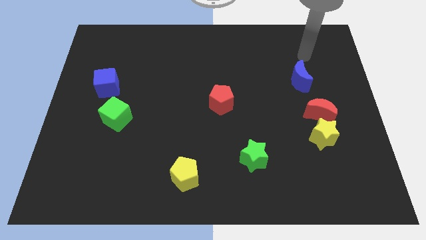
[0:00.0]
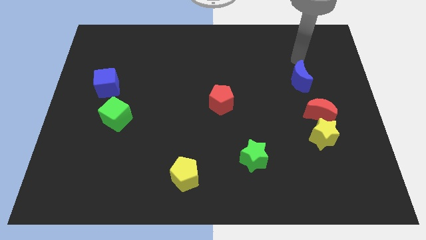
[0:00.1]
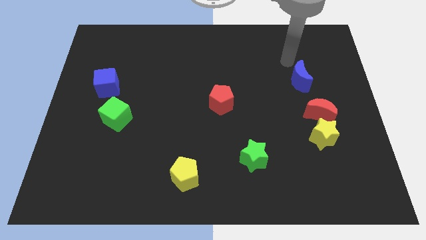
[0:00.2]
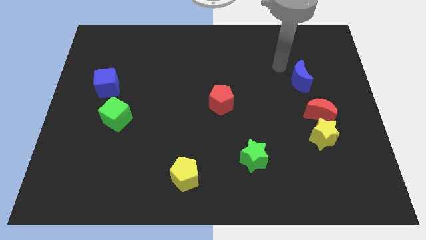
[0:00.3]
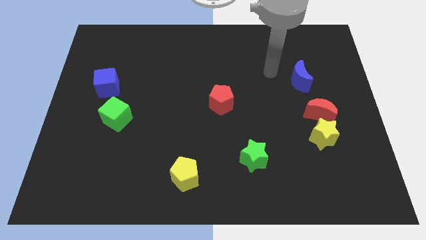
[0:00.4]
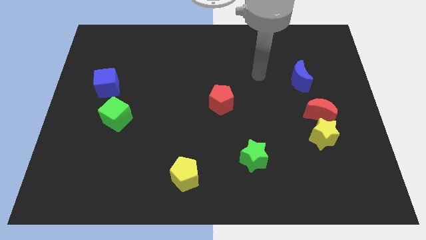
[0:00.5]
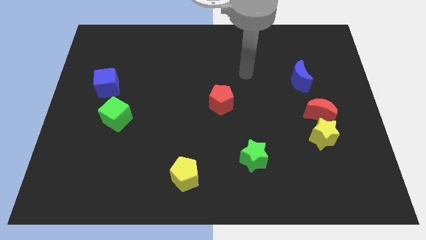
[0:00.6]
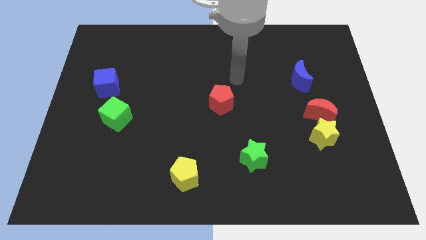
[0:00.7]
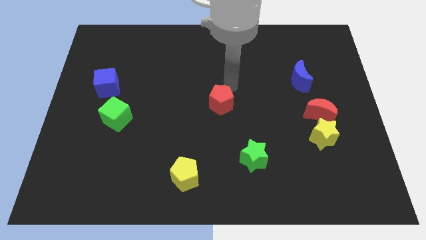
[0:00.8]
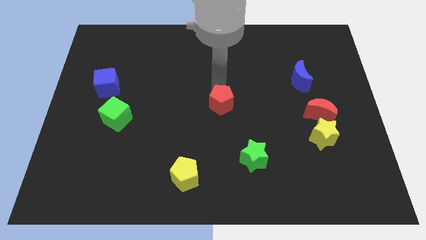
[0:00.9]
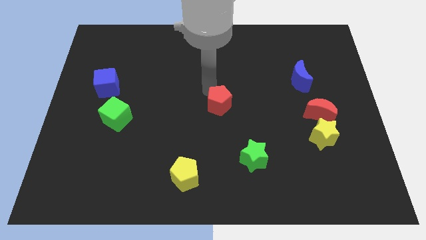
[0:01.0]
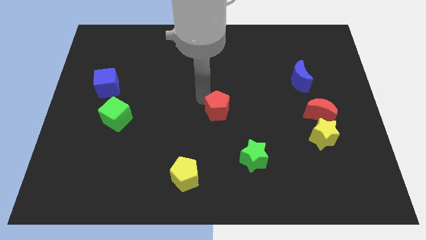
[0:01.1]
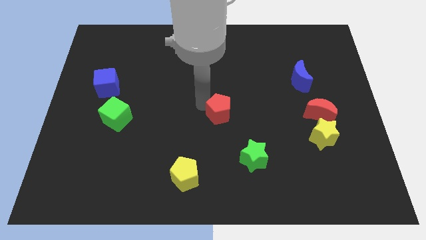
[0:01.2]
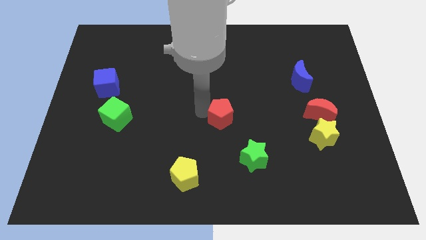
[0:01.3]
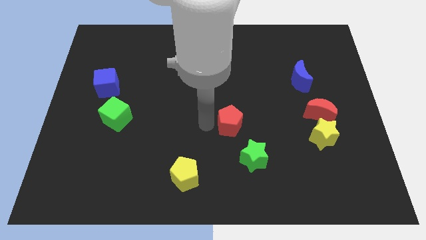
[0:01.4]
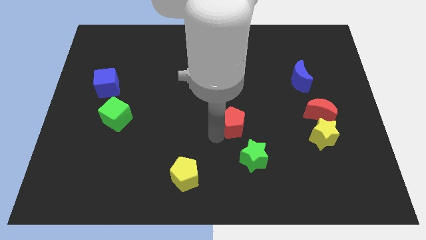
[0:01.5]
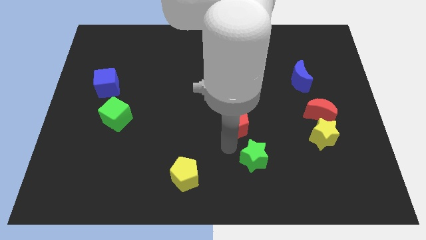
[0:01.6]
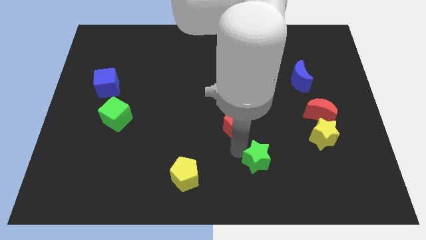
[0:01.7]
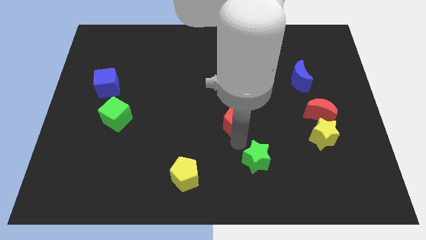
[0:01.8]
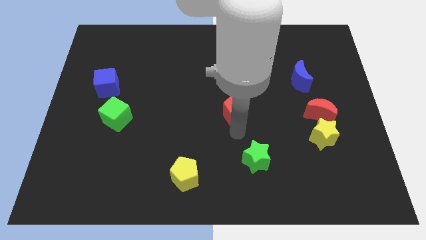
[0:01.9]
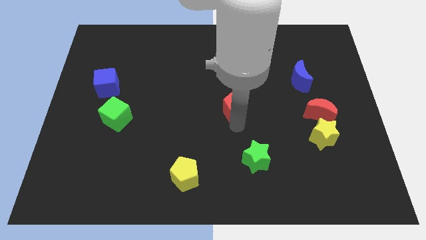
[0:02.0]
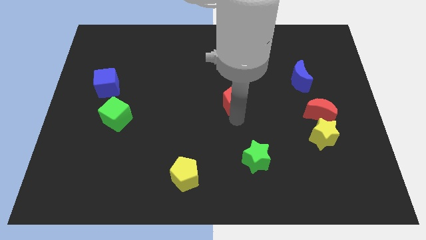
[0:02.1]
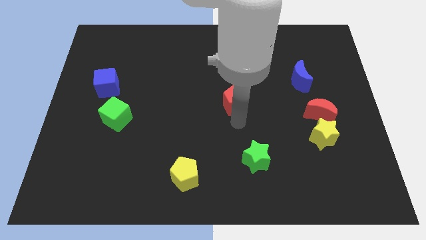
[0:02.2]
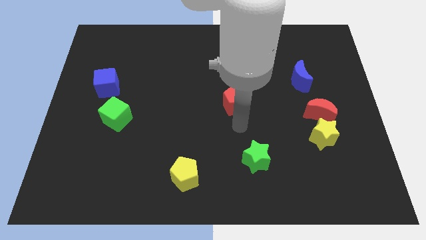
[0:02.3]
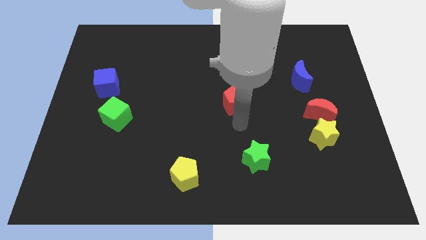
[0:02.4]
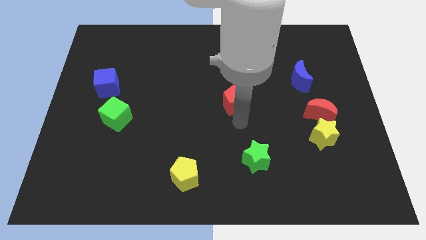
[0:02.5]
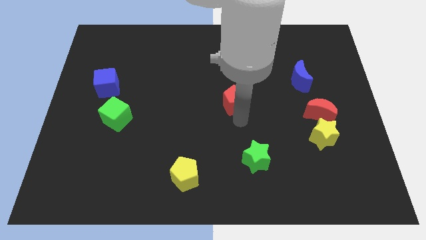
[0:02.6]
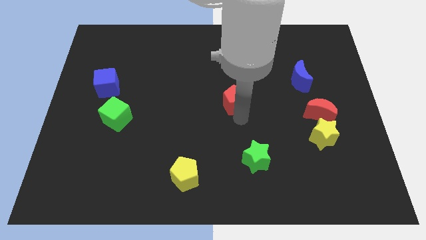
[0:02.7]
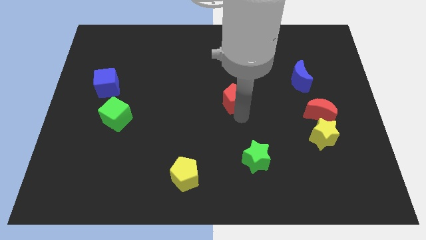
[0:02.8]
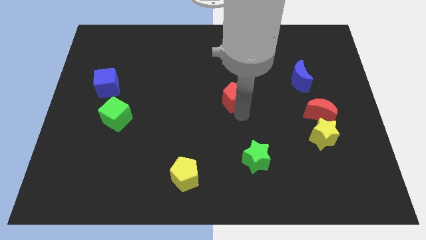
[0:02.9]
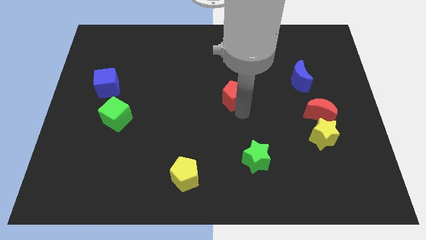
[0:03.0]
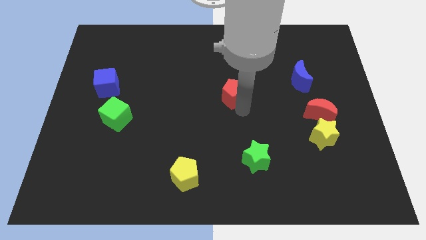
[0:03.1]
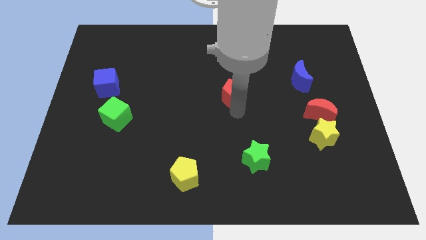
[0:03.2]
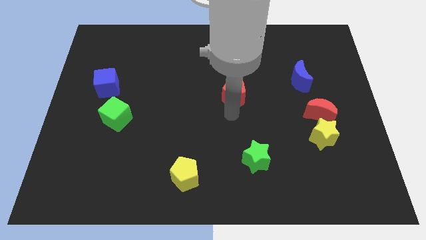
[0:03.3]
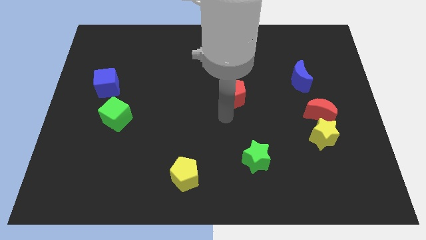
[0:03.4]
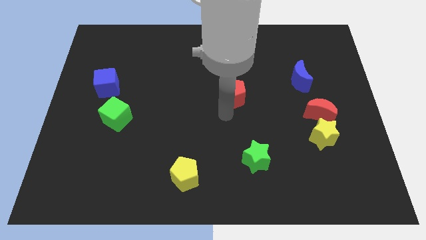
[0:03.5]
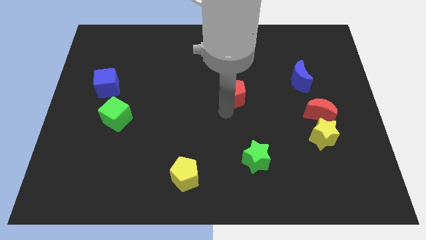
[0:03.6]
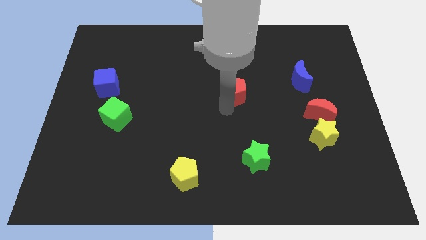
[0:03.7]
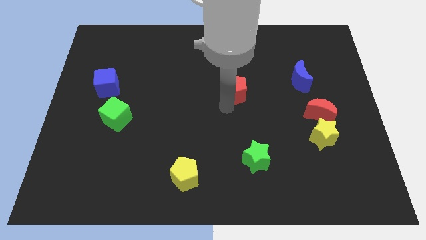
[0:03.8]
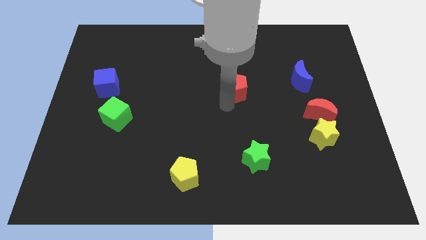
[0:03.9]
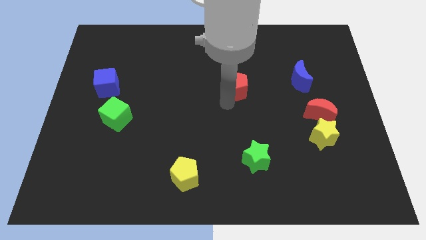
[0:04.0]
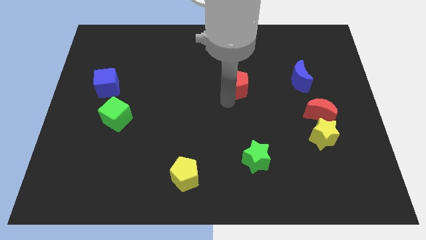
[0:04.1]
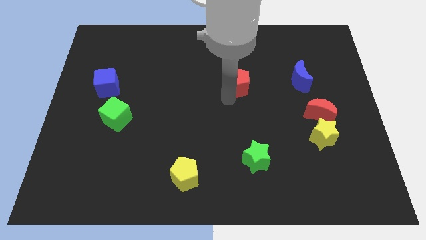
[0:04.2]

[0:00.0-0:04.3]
slightly slide the red pentagon diagonally up and right

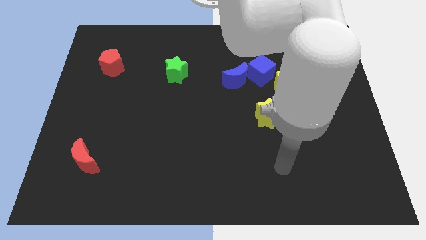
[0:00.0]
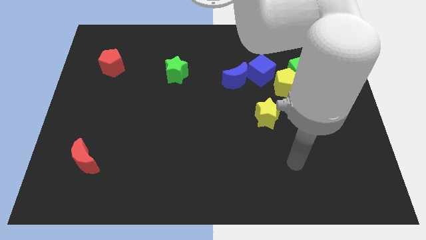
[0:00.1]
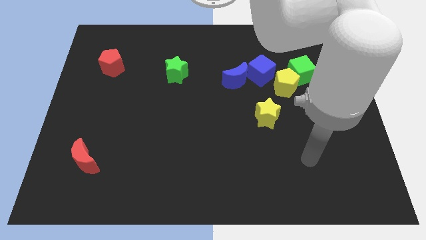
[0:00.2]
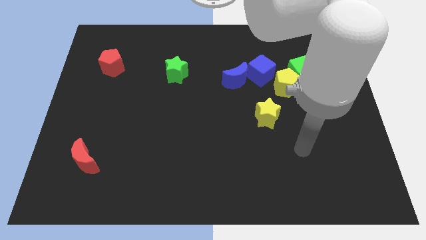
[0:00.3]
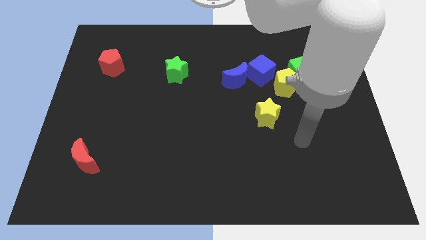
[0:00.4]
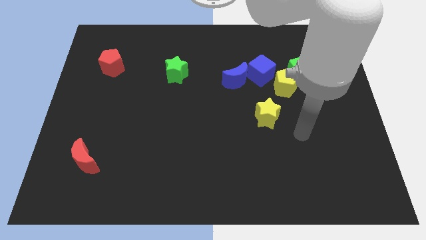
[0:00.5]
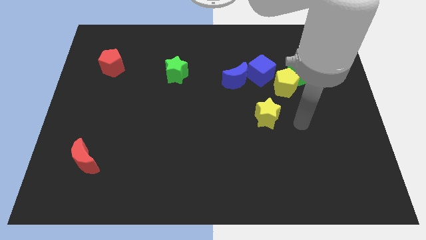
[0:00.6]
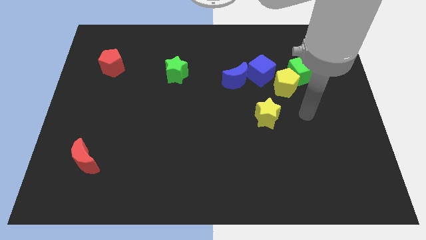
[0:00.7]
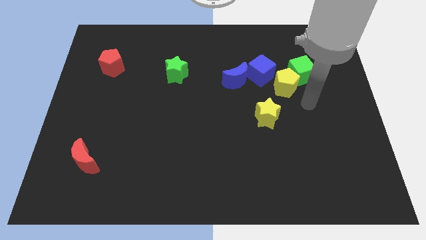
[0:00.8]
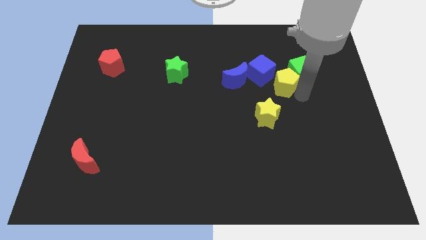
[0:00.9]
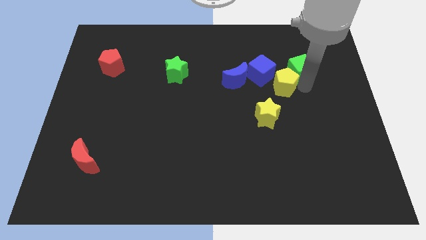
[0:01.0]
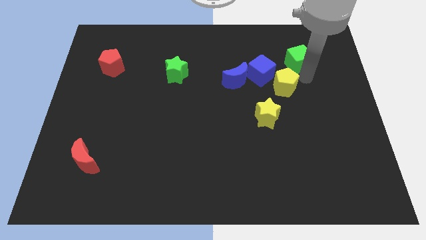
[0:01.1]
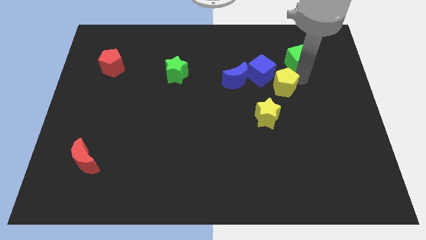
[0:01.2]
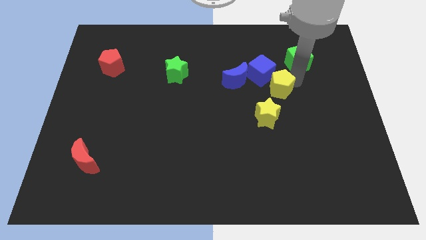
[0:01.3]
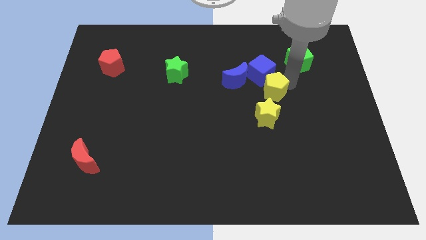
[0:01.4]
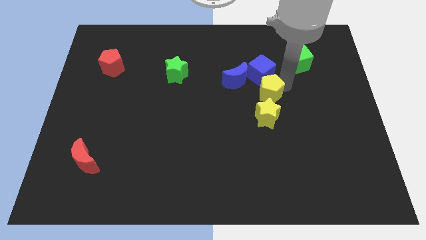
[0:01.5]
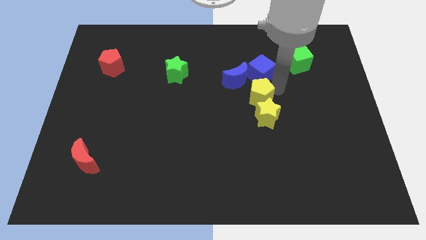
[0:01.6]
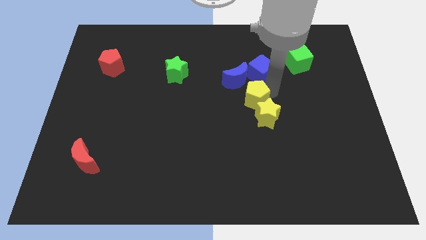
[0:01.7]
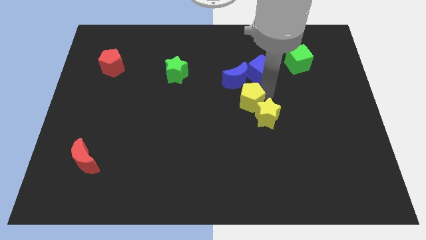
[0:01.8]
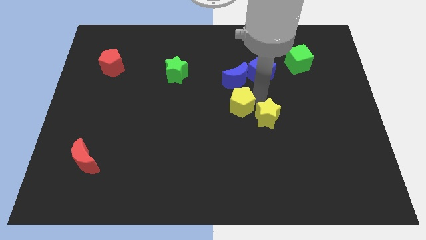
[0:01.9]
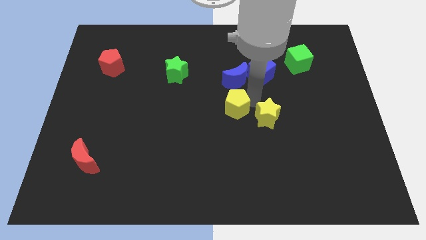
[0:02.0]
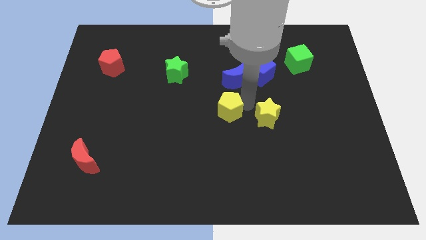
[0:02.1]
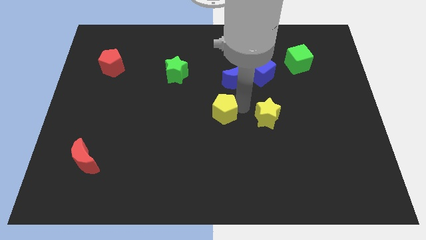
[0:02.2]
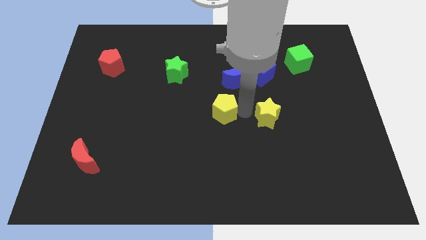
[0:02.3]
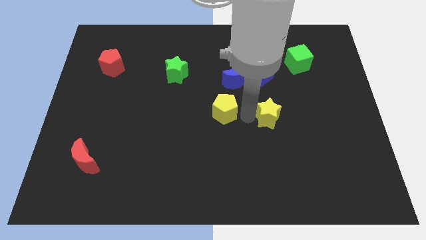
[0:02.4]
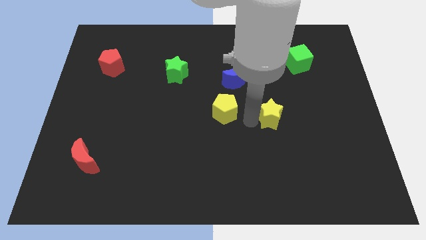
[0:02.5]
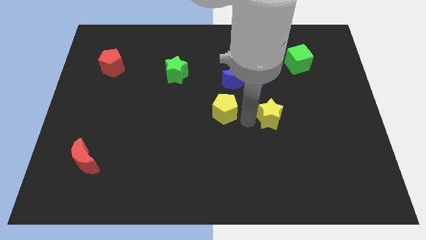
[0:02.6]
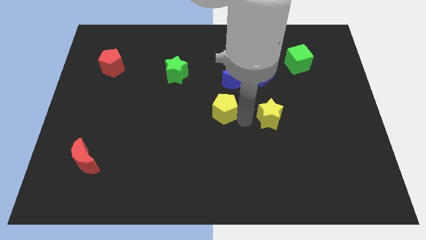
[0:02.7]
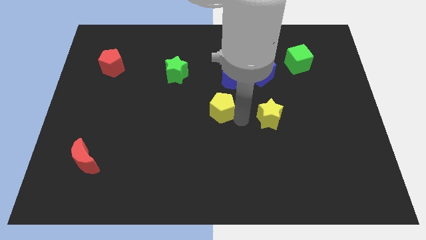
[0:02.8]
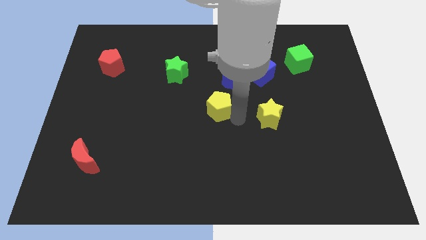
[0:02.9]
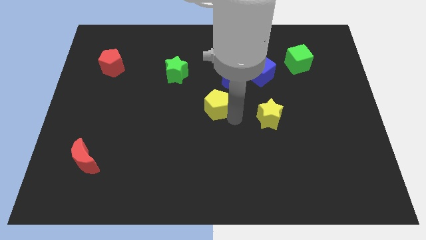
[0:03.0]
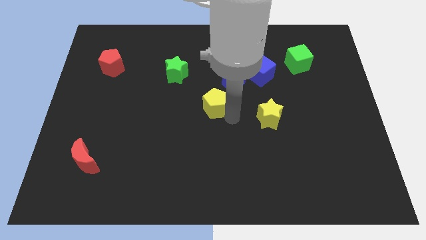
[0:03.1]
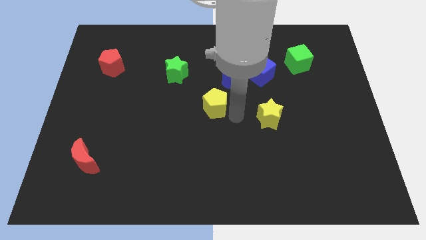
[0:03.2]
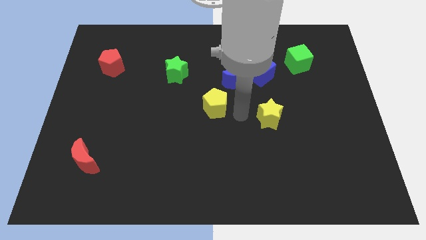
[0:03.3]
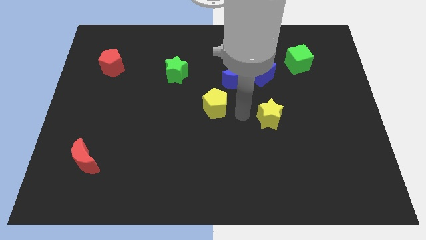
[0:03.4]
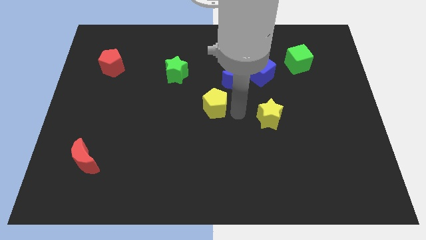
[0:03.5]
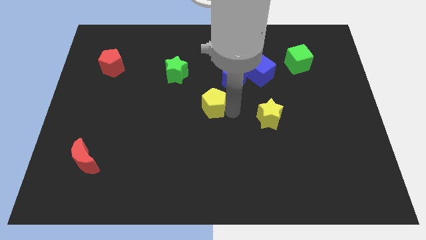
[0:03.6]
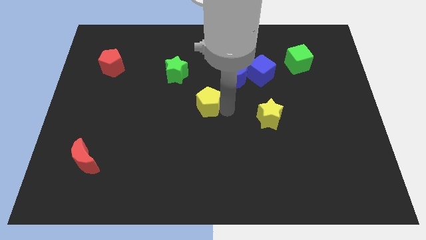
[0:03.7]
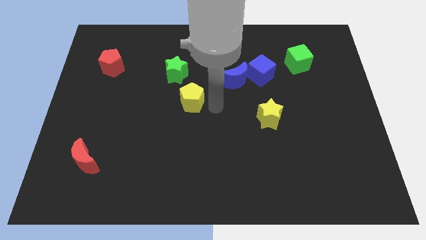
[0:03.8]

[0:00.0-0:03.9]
move the yellow pentagon to the left
